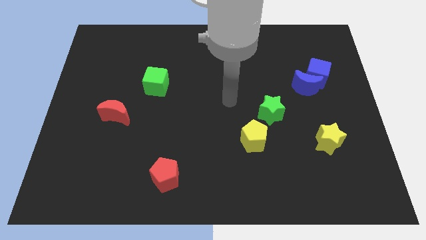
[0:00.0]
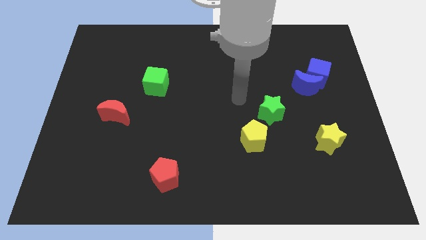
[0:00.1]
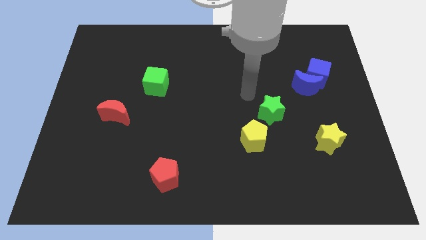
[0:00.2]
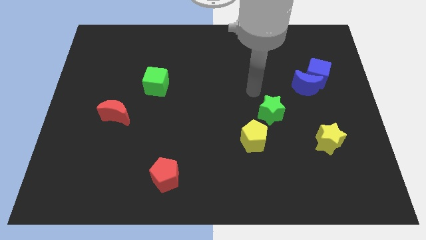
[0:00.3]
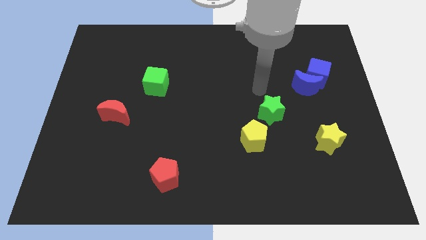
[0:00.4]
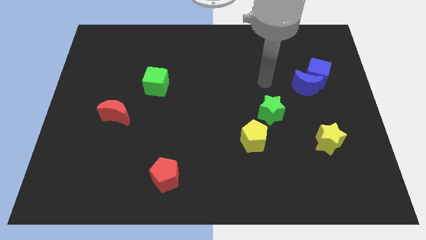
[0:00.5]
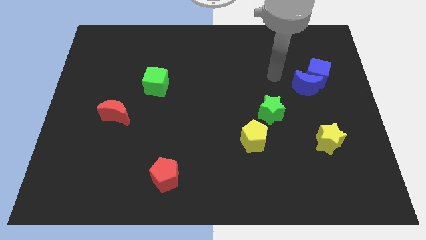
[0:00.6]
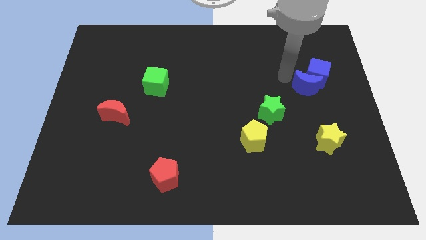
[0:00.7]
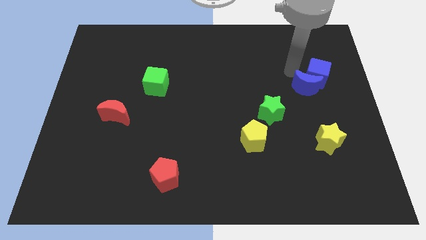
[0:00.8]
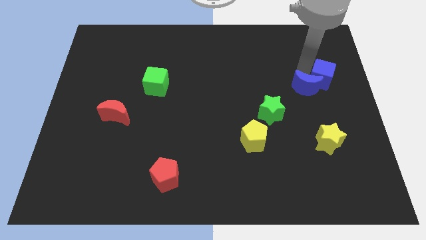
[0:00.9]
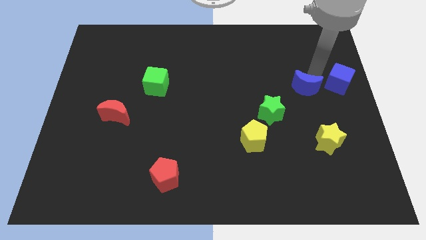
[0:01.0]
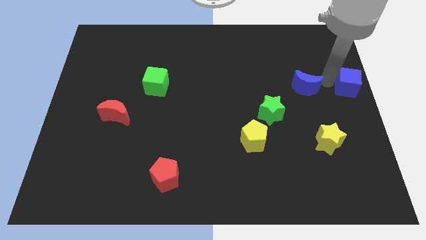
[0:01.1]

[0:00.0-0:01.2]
separate the blue moon from the blue cube

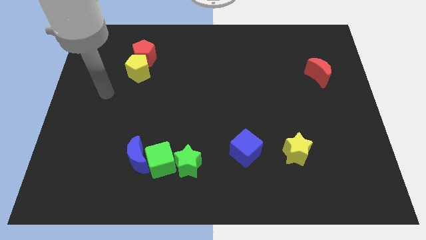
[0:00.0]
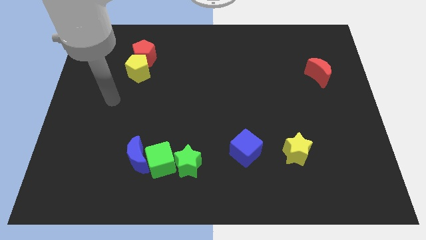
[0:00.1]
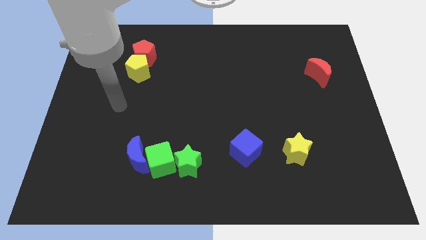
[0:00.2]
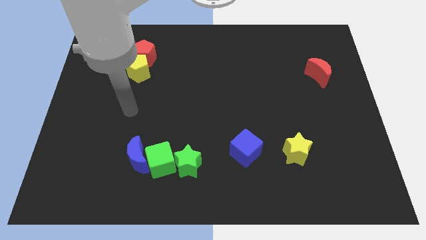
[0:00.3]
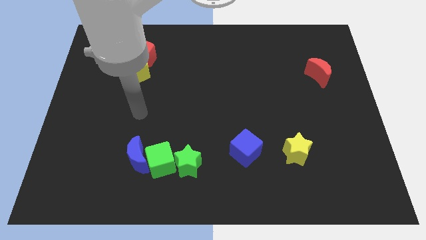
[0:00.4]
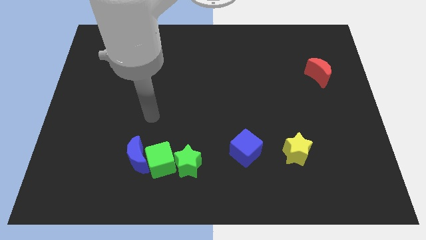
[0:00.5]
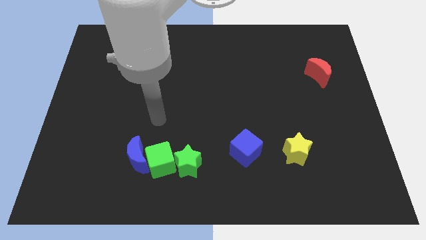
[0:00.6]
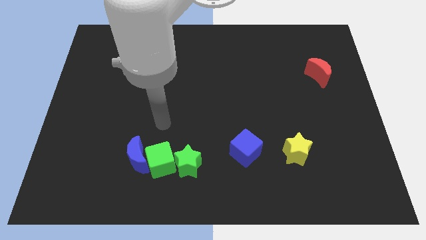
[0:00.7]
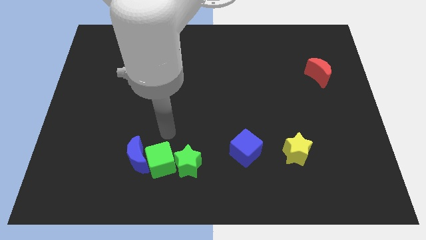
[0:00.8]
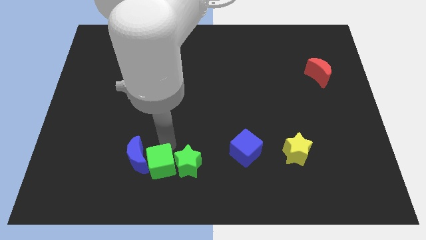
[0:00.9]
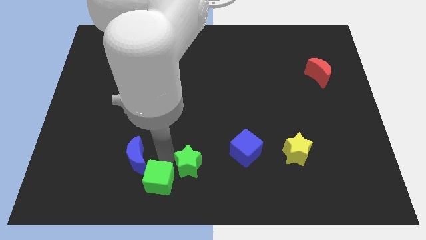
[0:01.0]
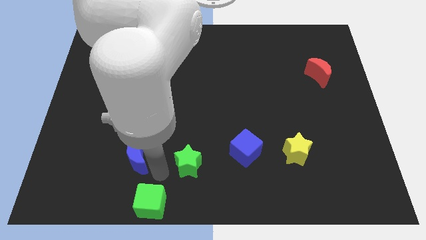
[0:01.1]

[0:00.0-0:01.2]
pull the blue moon apart from the green cube

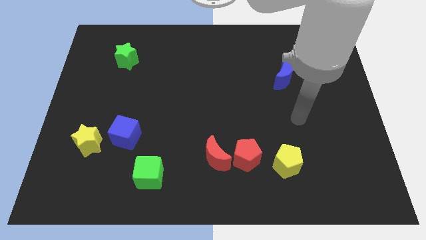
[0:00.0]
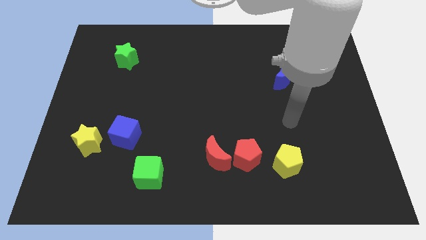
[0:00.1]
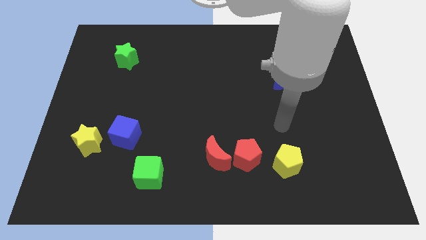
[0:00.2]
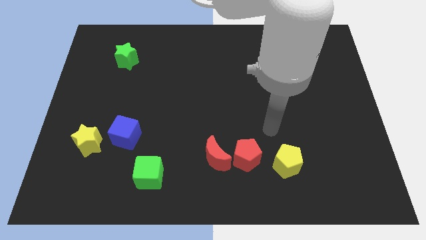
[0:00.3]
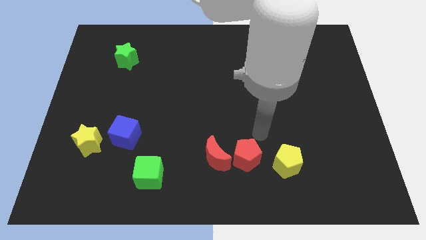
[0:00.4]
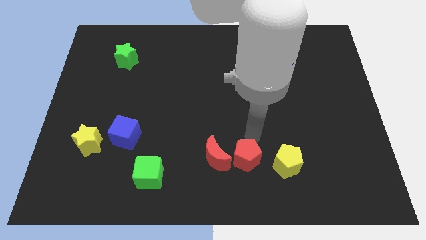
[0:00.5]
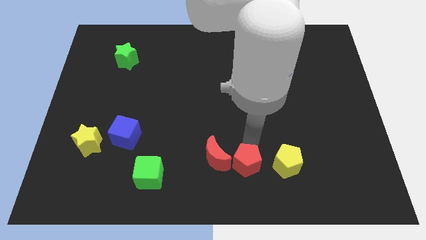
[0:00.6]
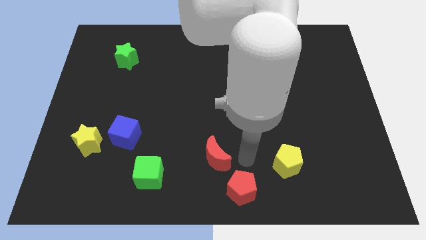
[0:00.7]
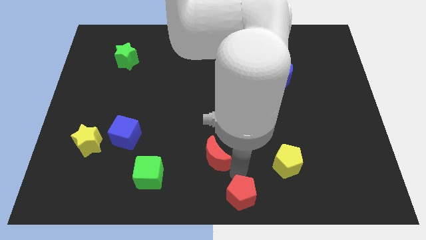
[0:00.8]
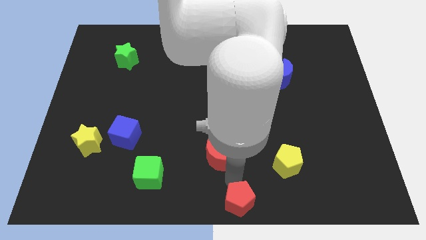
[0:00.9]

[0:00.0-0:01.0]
move the red moon away from the red pentagon

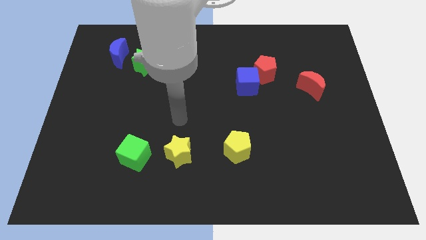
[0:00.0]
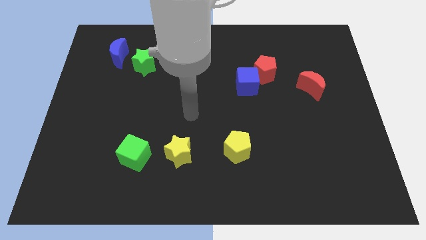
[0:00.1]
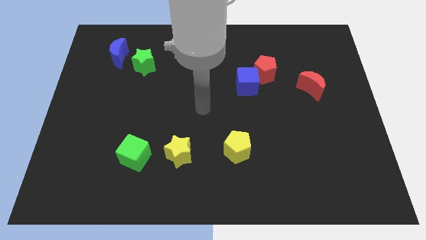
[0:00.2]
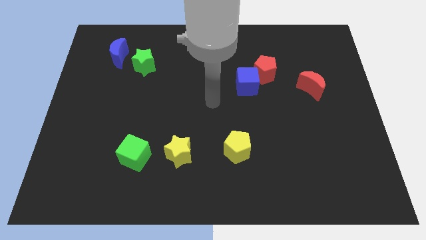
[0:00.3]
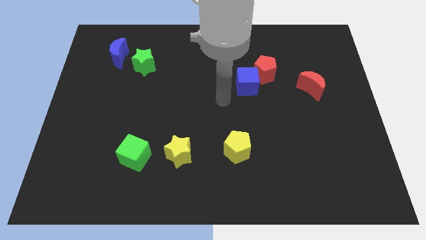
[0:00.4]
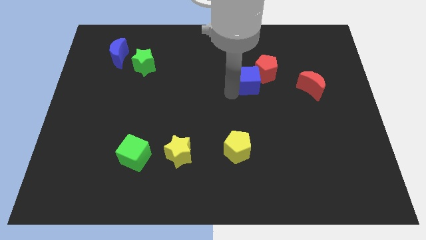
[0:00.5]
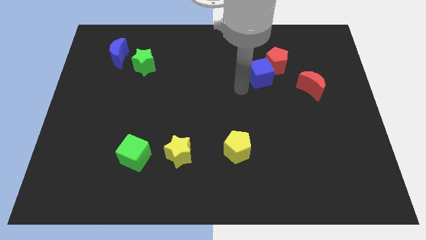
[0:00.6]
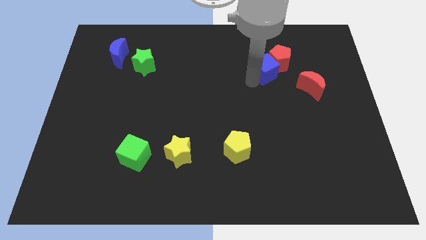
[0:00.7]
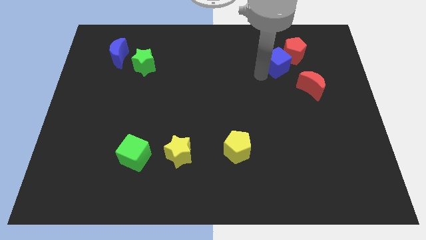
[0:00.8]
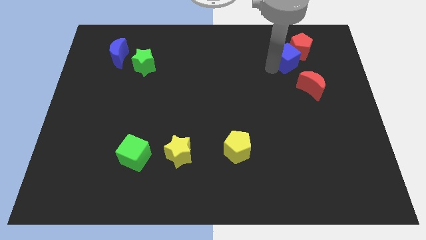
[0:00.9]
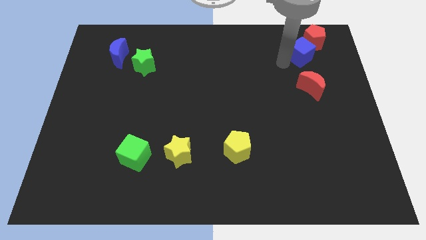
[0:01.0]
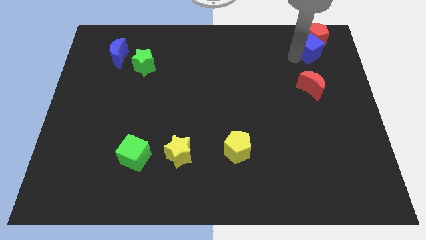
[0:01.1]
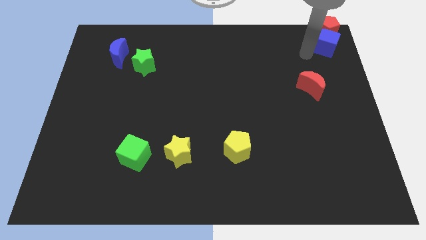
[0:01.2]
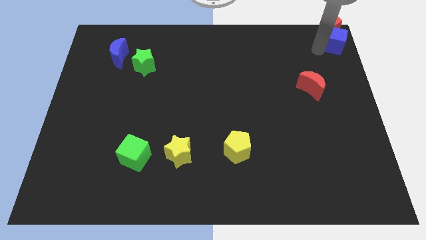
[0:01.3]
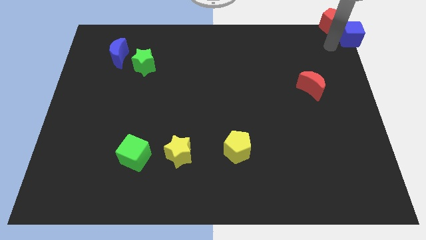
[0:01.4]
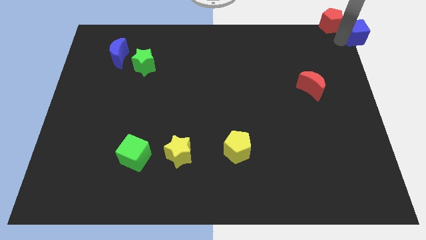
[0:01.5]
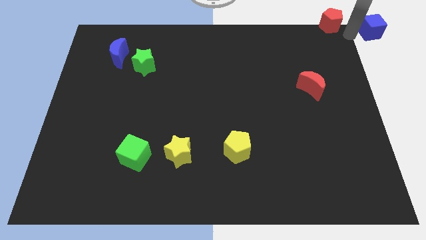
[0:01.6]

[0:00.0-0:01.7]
pull the red pentagon apart from the blue cube

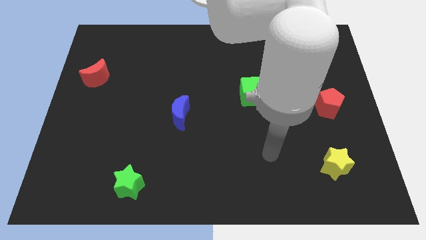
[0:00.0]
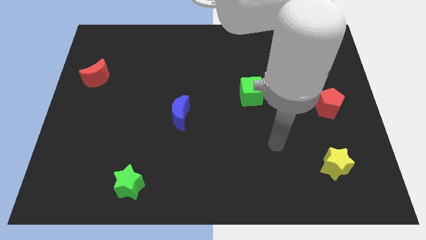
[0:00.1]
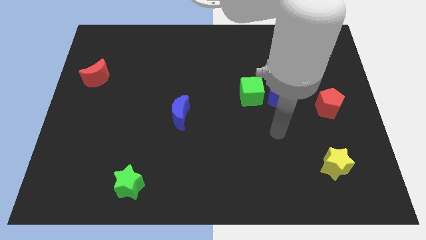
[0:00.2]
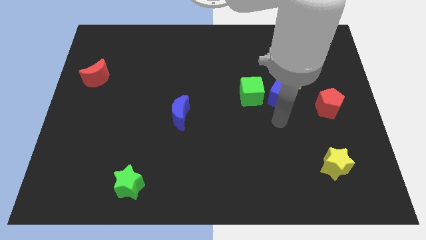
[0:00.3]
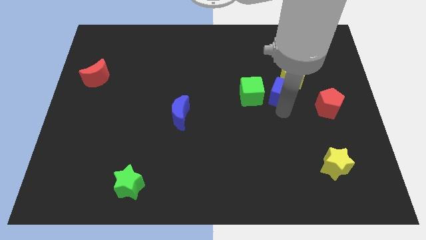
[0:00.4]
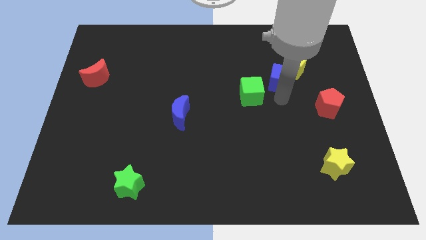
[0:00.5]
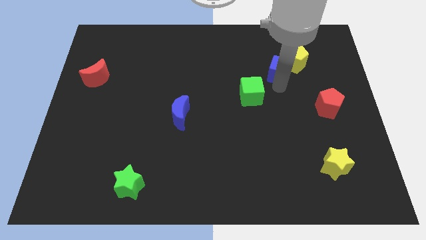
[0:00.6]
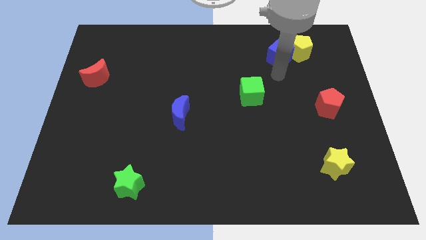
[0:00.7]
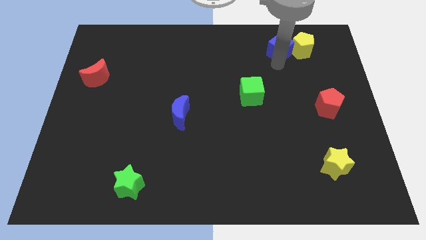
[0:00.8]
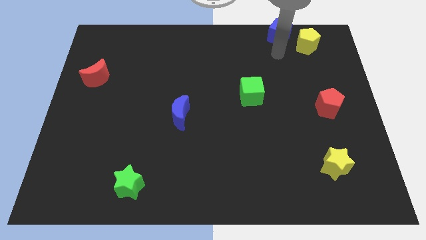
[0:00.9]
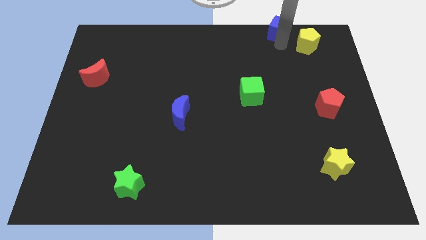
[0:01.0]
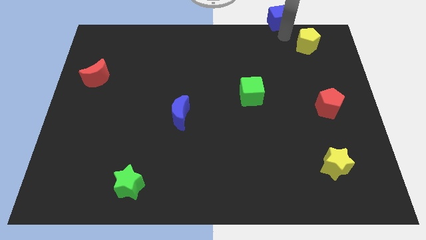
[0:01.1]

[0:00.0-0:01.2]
separate the yellow pentagon from the blue cube

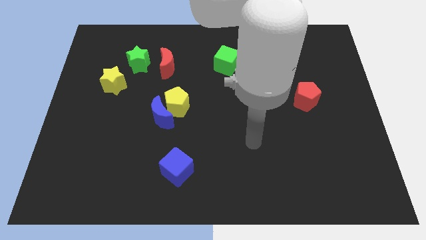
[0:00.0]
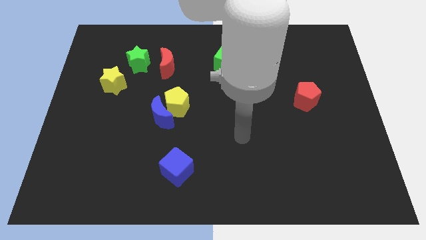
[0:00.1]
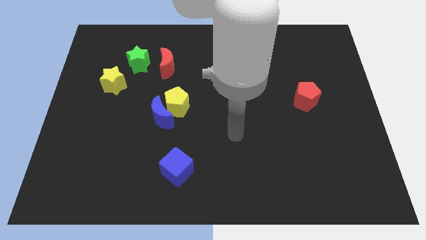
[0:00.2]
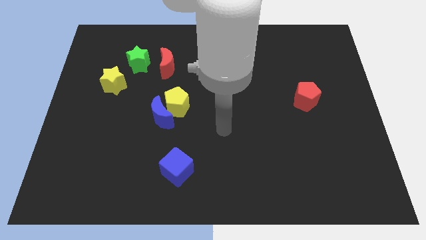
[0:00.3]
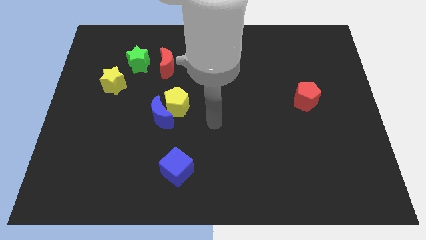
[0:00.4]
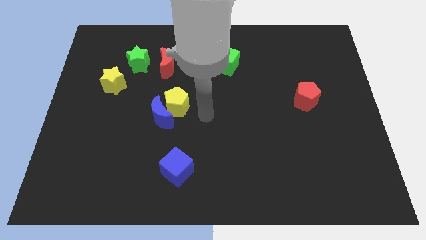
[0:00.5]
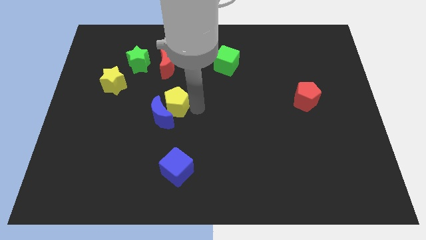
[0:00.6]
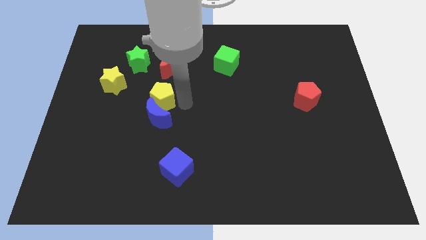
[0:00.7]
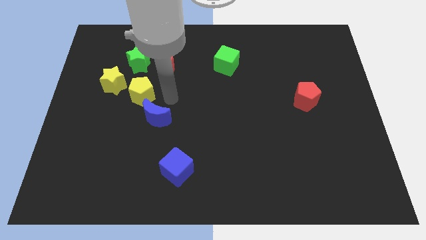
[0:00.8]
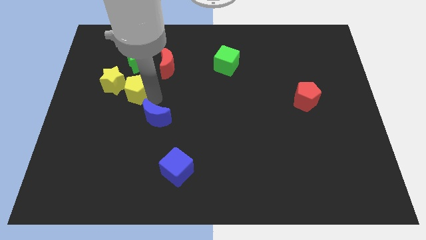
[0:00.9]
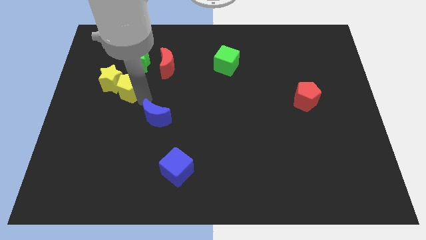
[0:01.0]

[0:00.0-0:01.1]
pull the blue moon apart from the yellow pentagon

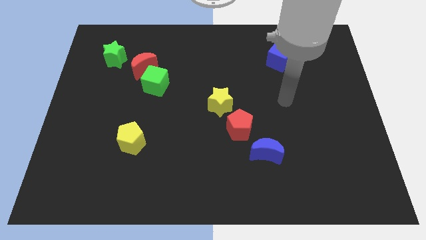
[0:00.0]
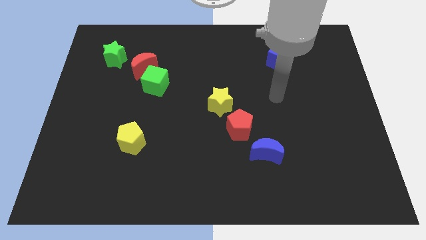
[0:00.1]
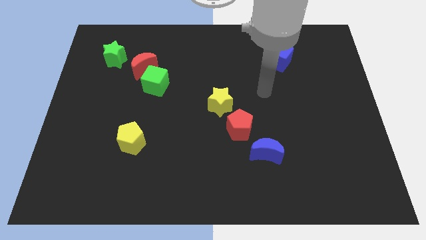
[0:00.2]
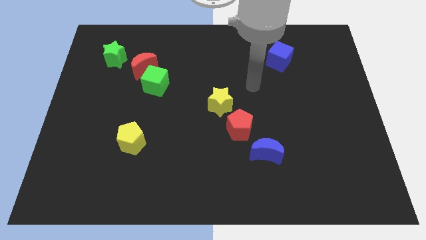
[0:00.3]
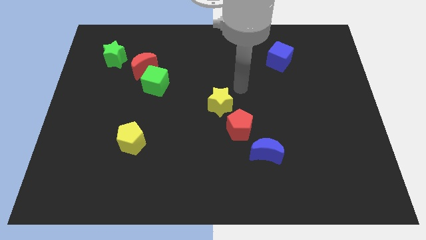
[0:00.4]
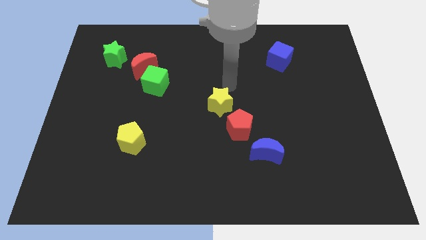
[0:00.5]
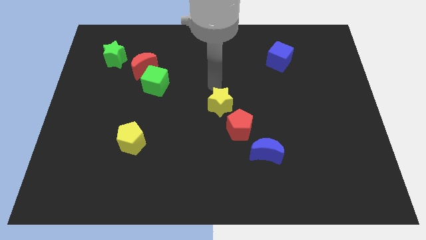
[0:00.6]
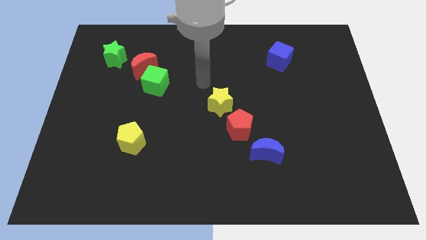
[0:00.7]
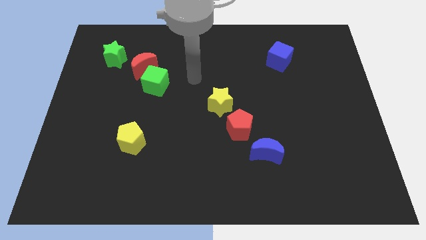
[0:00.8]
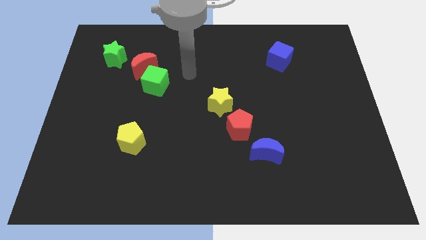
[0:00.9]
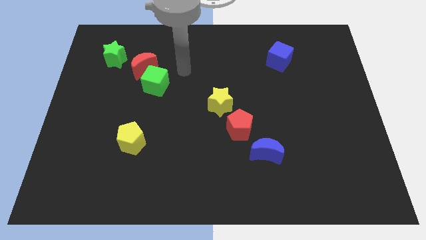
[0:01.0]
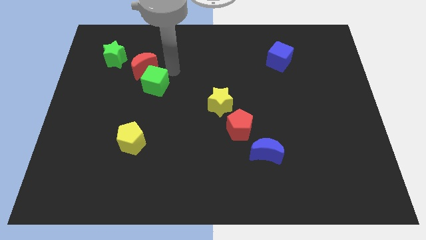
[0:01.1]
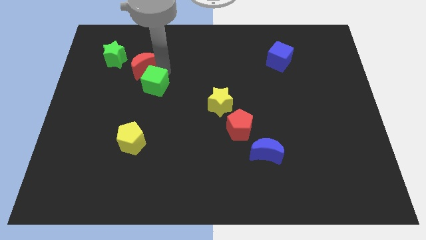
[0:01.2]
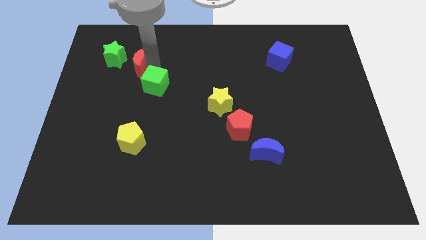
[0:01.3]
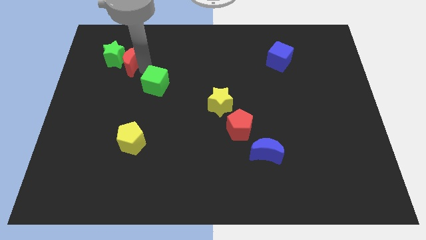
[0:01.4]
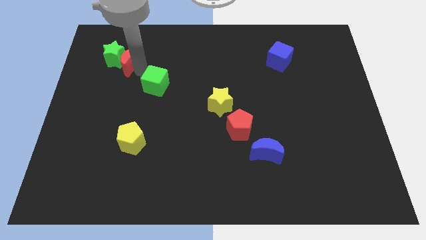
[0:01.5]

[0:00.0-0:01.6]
pull the green cube apart from the red moon
